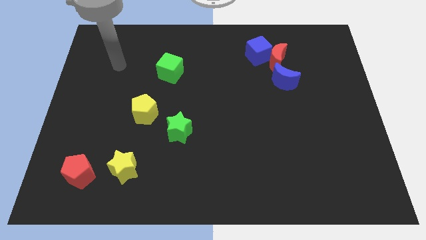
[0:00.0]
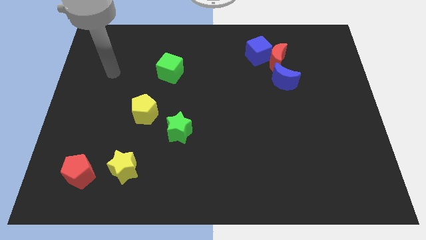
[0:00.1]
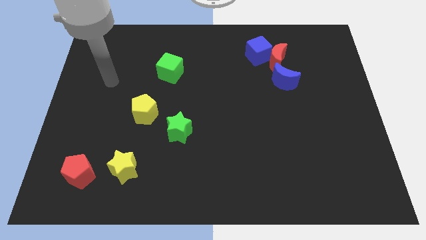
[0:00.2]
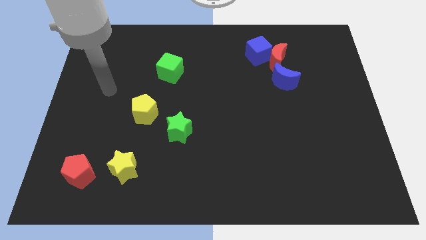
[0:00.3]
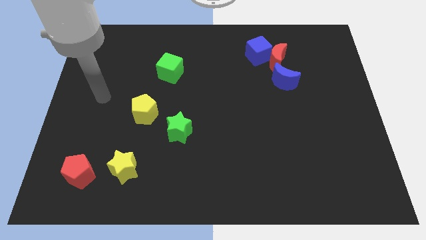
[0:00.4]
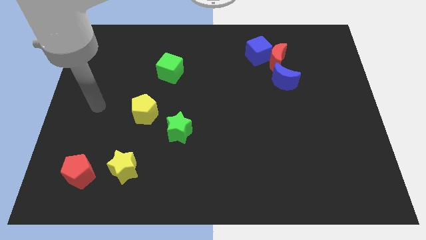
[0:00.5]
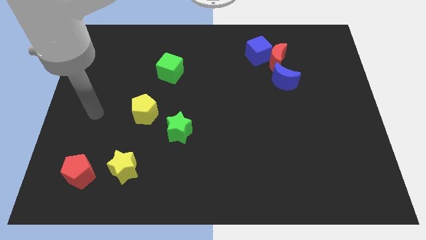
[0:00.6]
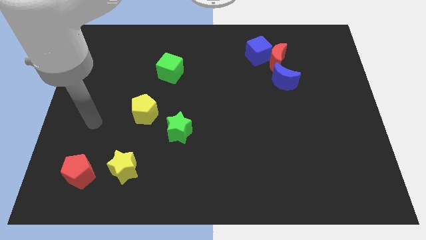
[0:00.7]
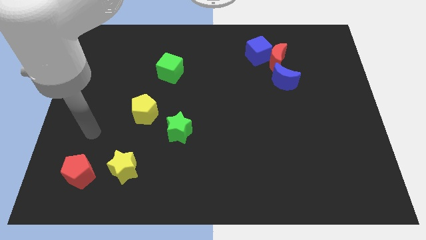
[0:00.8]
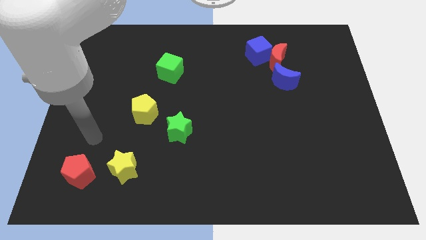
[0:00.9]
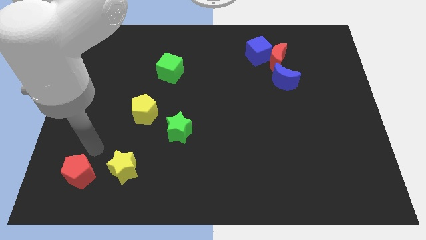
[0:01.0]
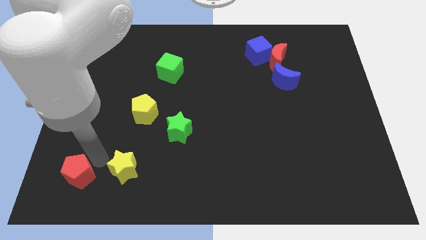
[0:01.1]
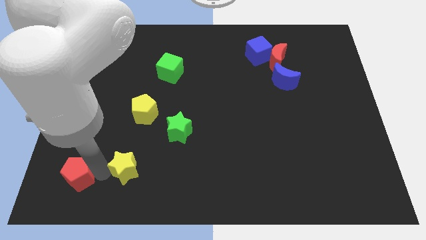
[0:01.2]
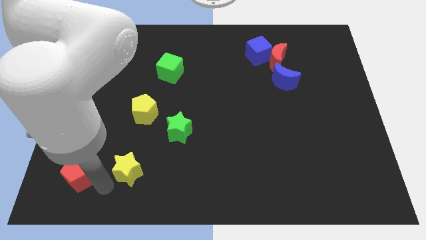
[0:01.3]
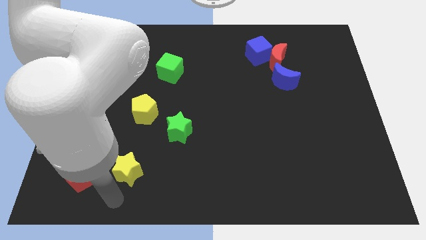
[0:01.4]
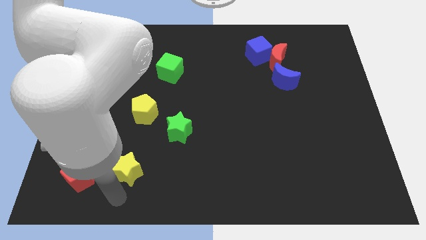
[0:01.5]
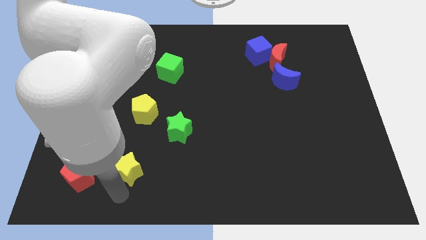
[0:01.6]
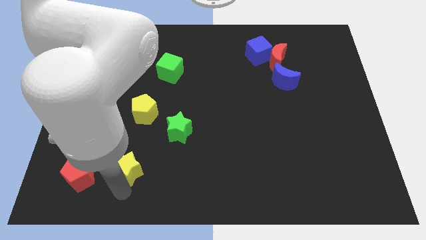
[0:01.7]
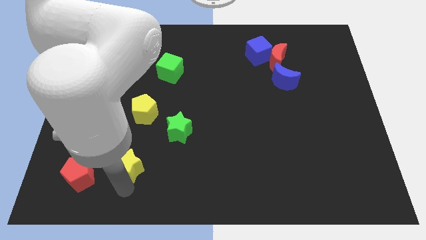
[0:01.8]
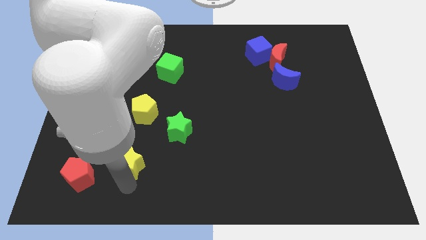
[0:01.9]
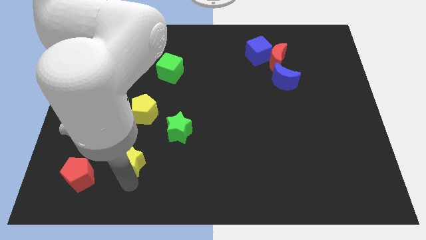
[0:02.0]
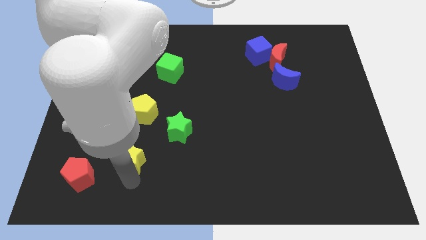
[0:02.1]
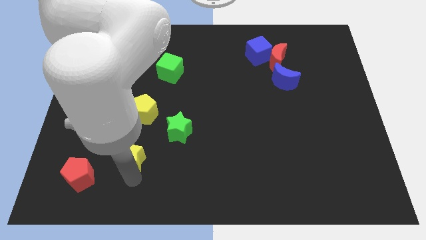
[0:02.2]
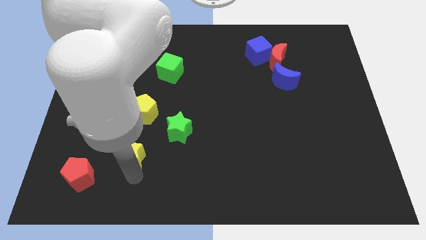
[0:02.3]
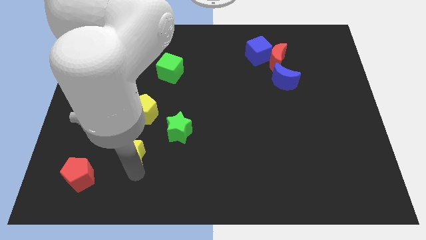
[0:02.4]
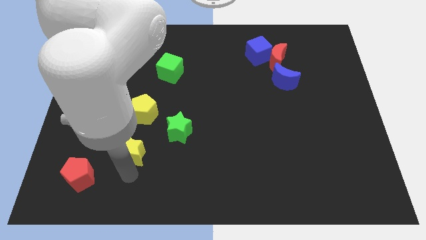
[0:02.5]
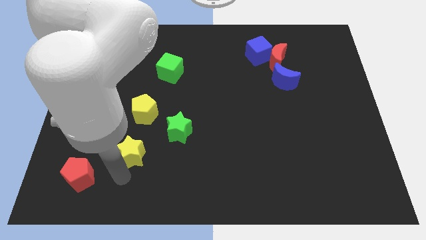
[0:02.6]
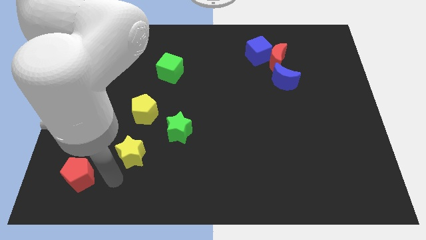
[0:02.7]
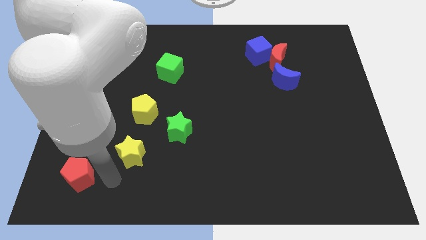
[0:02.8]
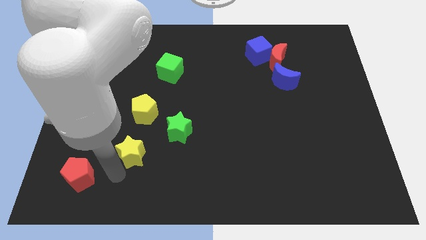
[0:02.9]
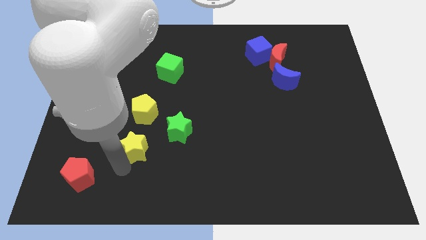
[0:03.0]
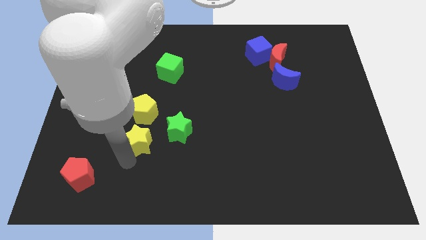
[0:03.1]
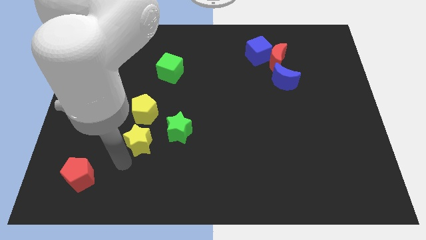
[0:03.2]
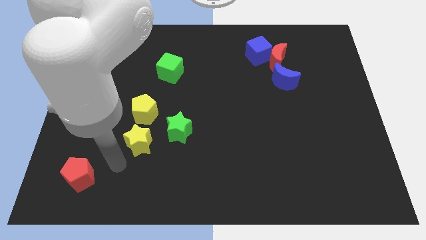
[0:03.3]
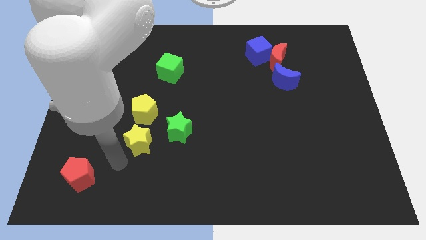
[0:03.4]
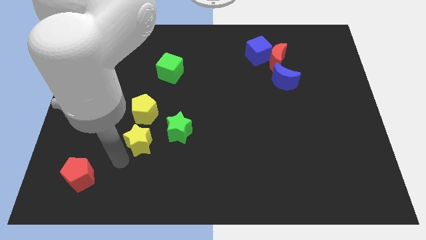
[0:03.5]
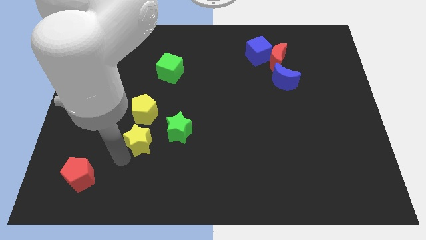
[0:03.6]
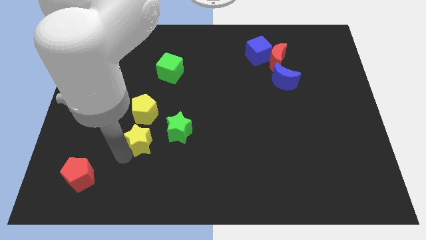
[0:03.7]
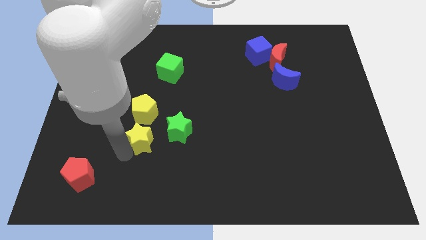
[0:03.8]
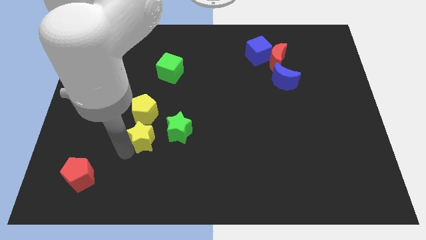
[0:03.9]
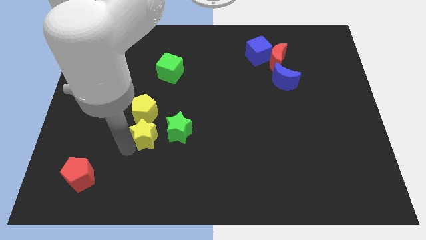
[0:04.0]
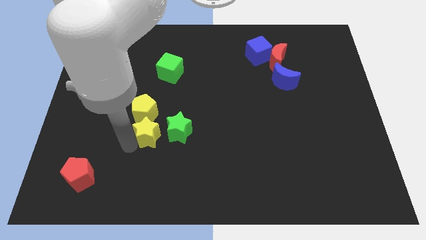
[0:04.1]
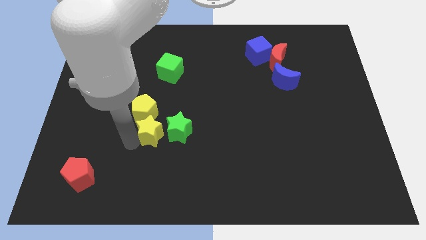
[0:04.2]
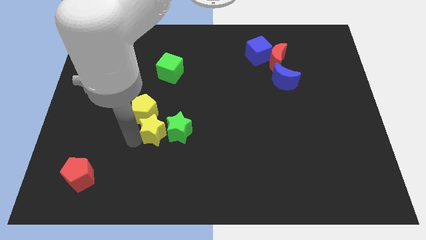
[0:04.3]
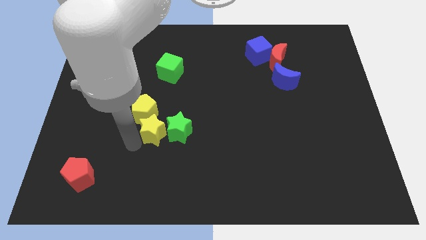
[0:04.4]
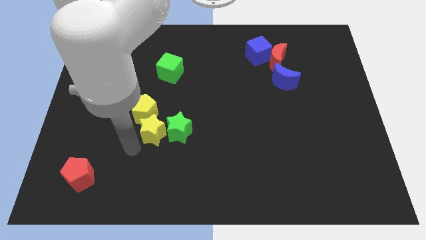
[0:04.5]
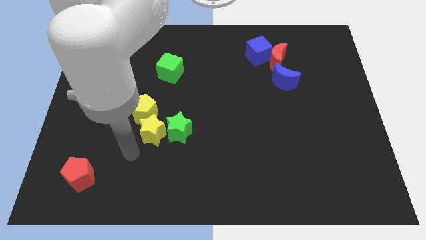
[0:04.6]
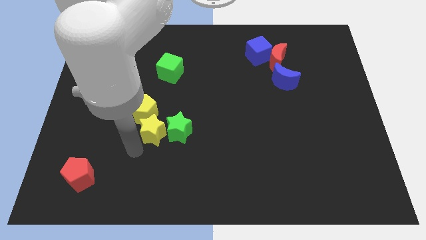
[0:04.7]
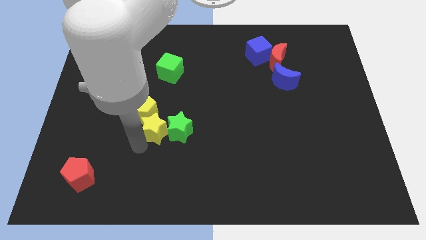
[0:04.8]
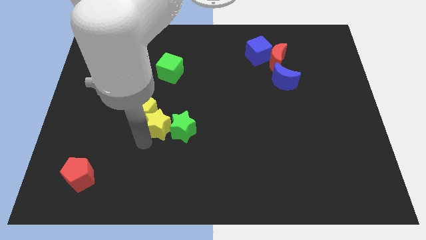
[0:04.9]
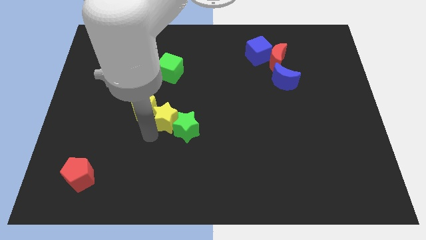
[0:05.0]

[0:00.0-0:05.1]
push the yellow star to the middle of the board

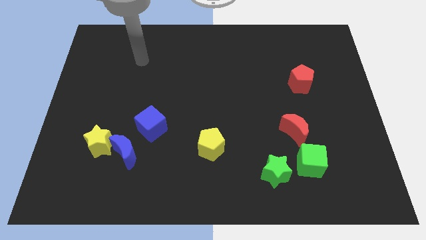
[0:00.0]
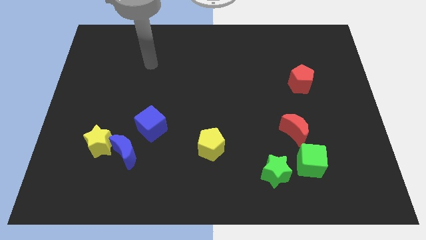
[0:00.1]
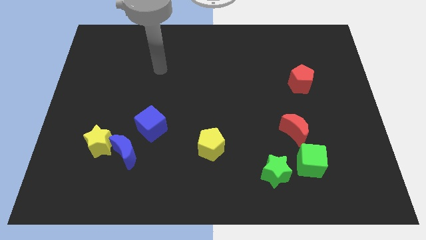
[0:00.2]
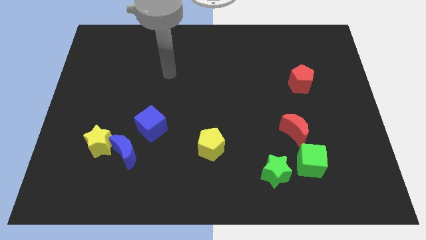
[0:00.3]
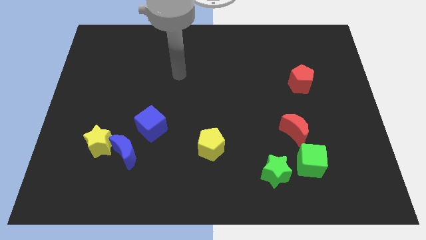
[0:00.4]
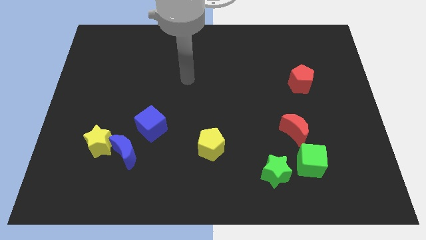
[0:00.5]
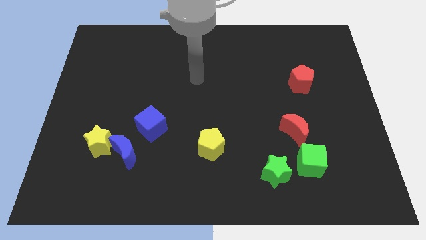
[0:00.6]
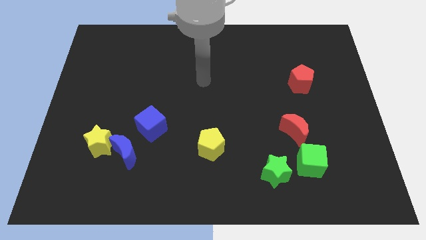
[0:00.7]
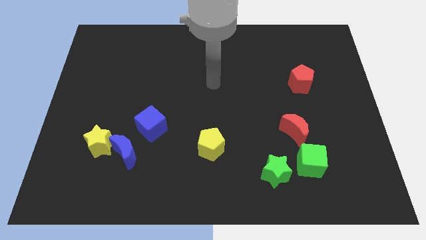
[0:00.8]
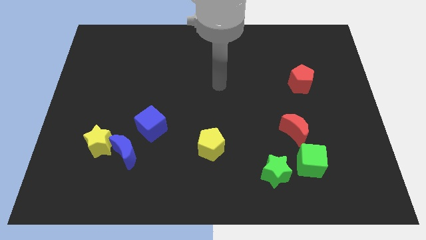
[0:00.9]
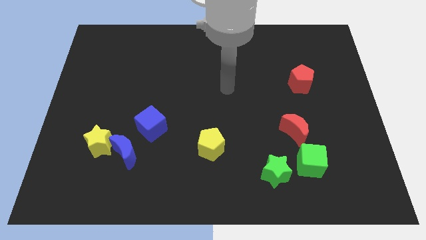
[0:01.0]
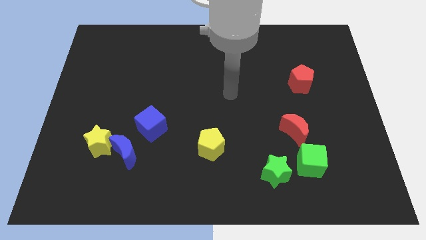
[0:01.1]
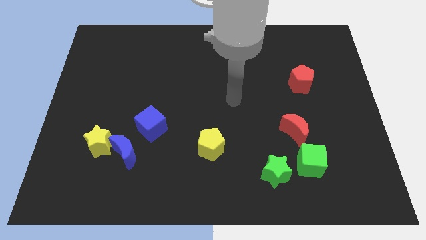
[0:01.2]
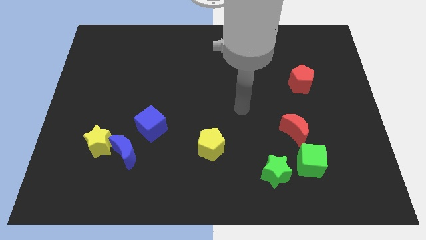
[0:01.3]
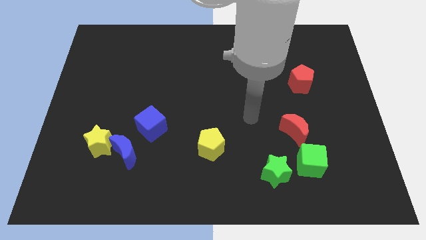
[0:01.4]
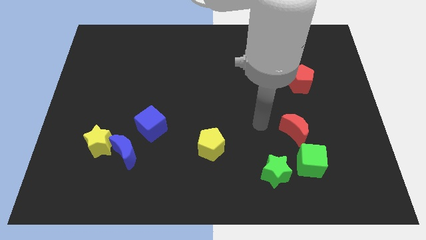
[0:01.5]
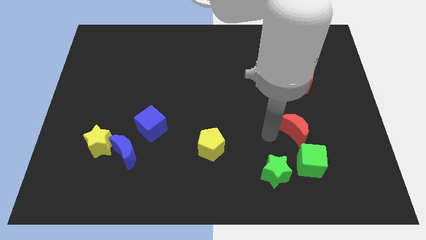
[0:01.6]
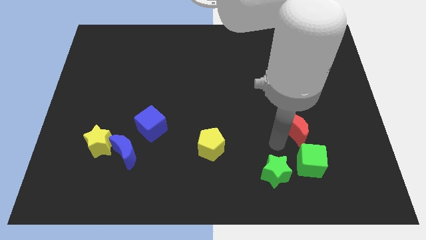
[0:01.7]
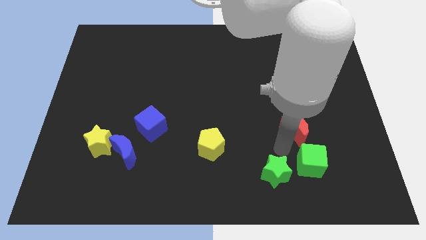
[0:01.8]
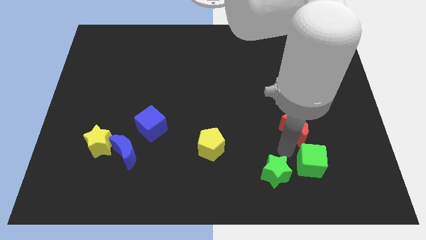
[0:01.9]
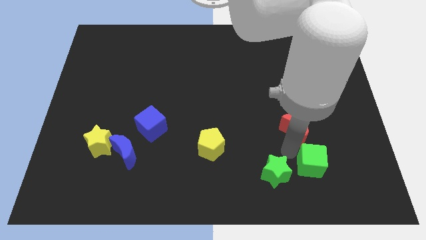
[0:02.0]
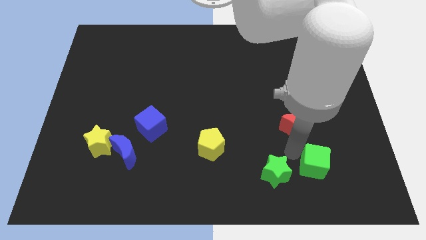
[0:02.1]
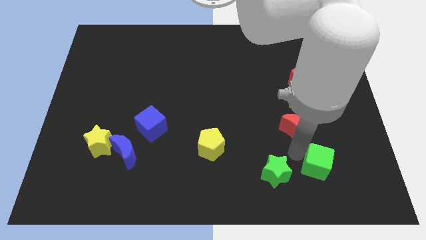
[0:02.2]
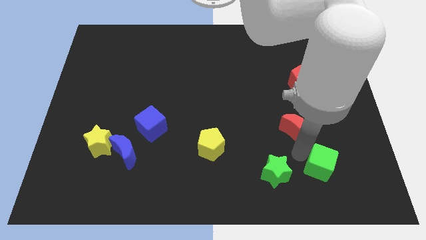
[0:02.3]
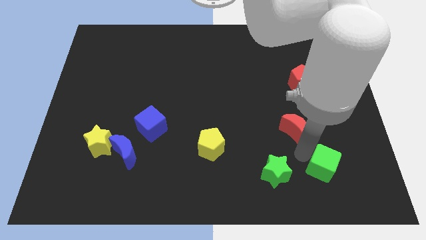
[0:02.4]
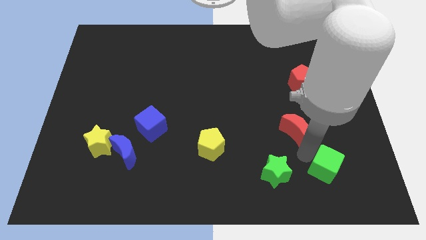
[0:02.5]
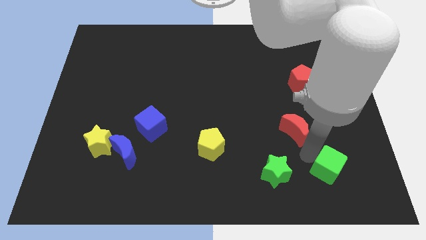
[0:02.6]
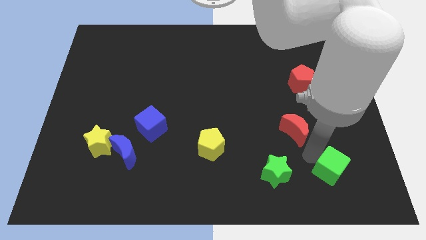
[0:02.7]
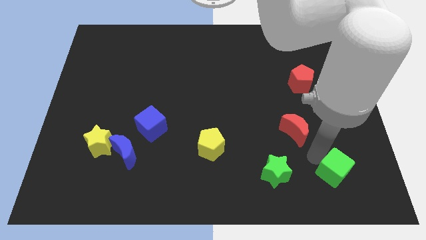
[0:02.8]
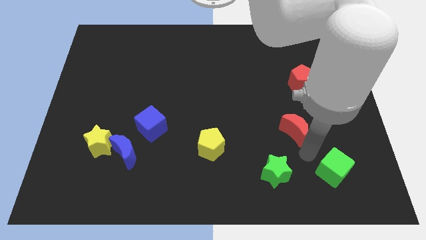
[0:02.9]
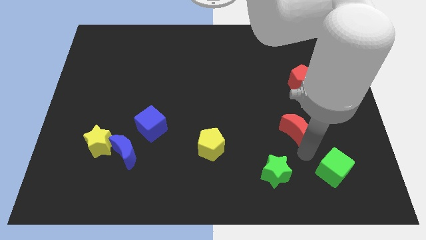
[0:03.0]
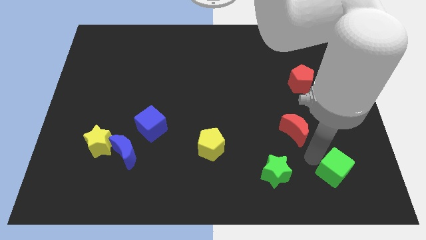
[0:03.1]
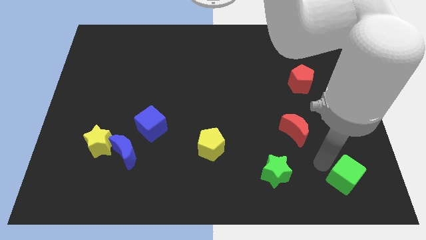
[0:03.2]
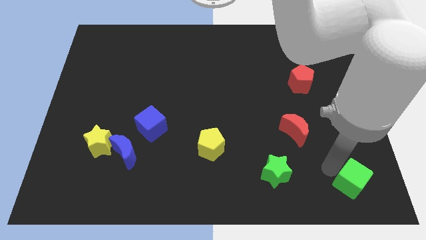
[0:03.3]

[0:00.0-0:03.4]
put the green cube to the bottom right
